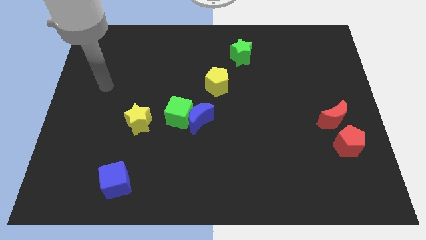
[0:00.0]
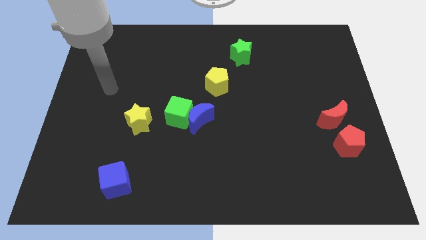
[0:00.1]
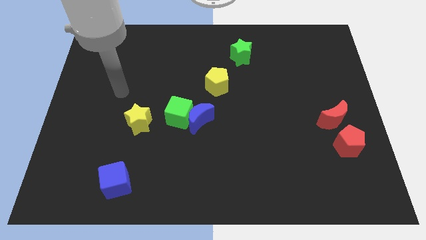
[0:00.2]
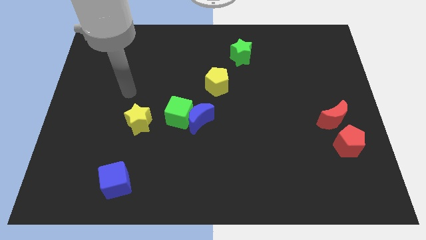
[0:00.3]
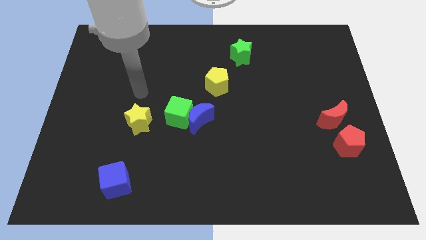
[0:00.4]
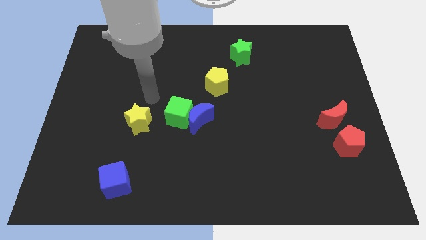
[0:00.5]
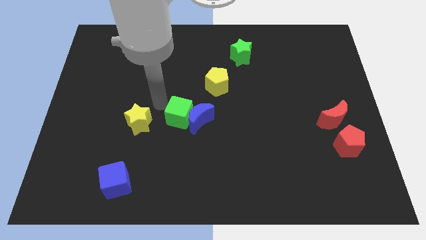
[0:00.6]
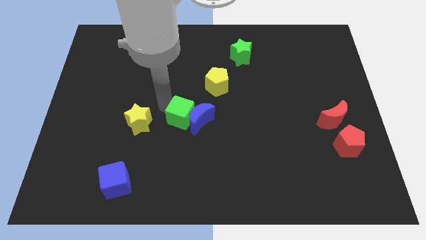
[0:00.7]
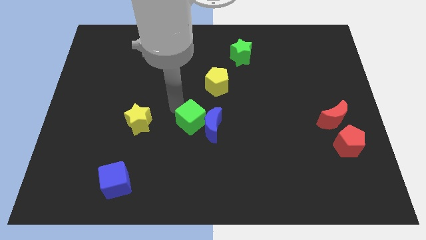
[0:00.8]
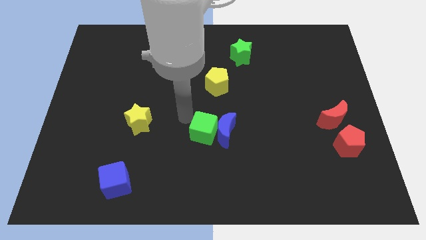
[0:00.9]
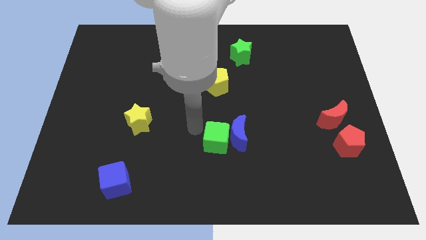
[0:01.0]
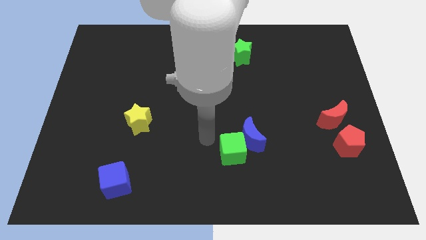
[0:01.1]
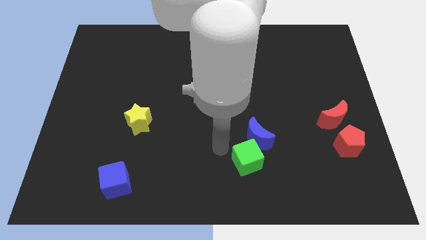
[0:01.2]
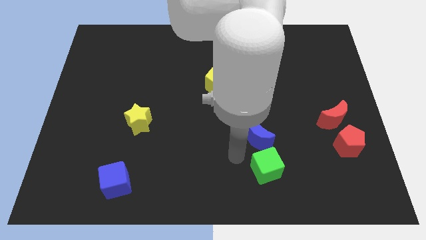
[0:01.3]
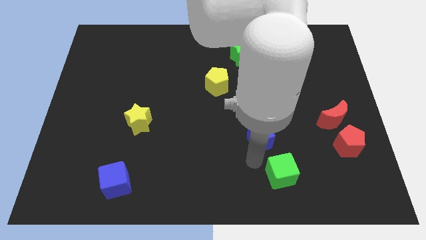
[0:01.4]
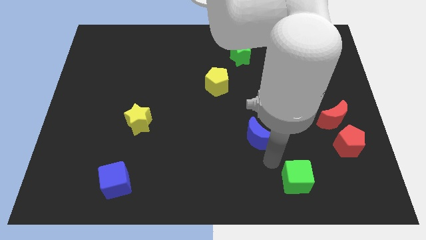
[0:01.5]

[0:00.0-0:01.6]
move the blue moon away from the green cube

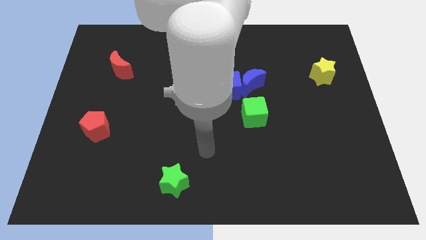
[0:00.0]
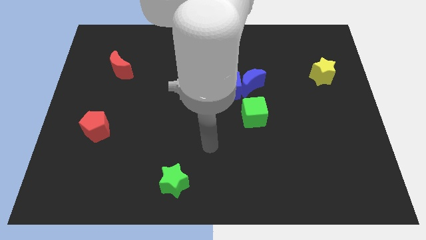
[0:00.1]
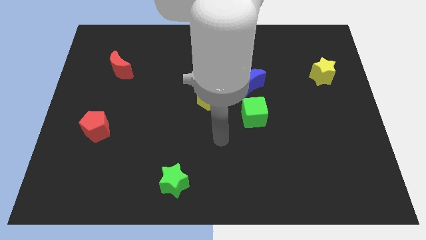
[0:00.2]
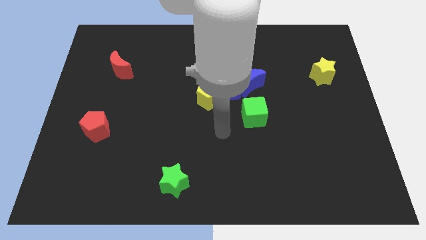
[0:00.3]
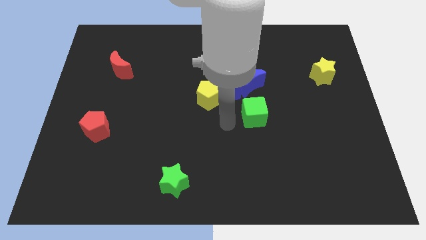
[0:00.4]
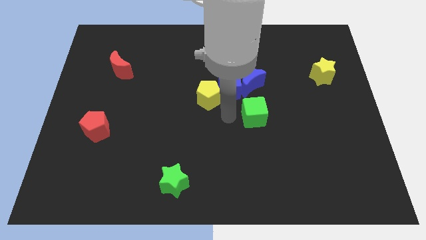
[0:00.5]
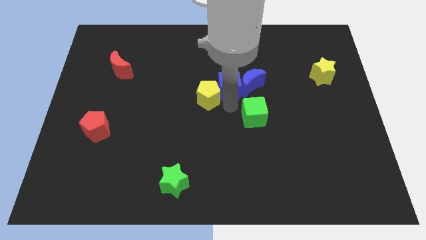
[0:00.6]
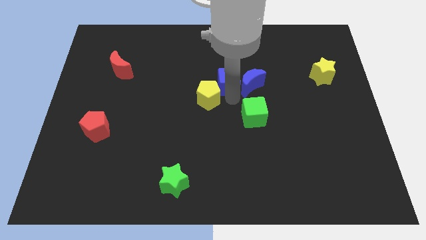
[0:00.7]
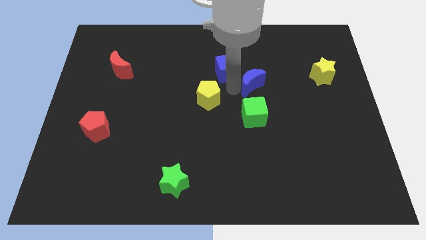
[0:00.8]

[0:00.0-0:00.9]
pull the yellow pentagon apart from the blue cube

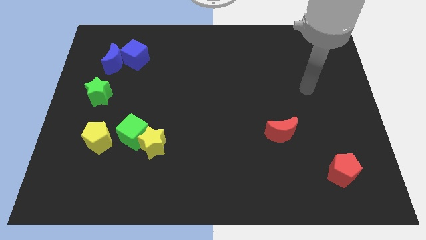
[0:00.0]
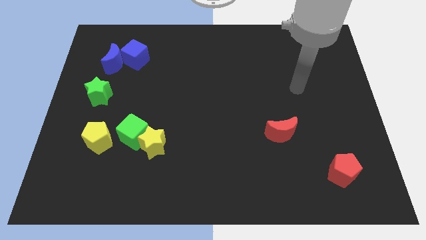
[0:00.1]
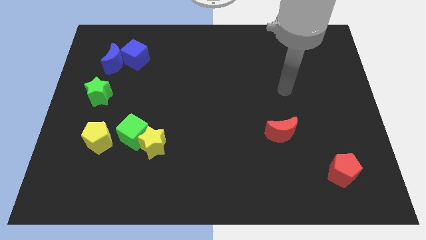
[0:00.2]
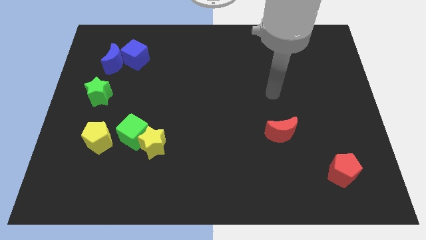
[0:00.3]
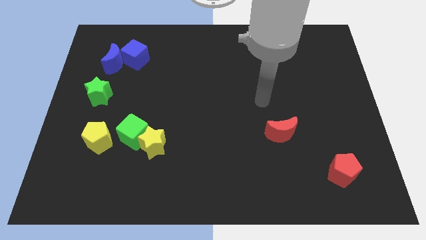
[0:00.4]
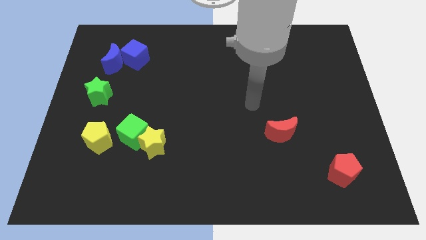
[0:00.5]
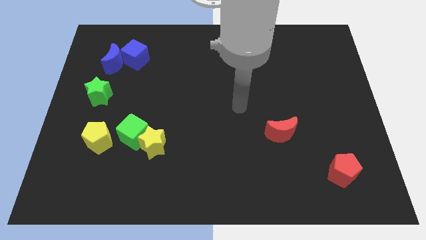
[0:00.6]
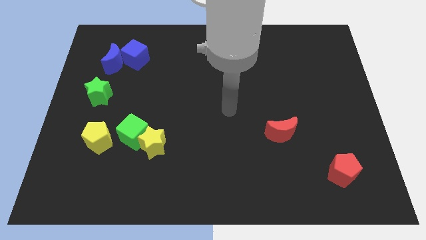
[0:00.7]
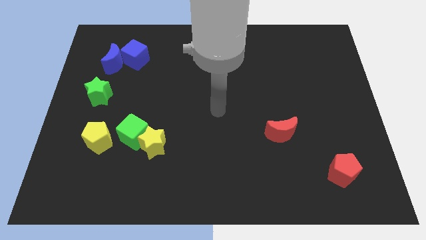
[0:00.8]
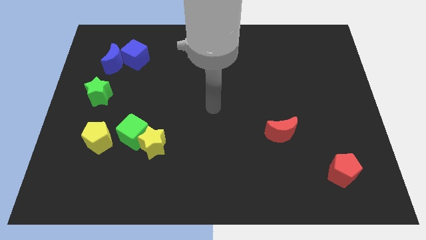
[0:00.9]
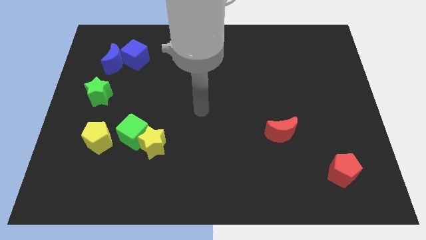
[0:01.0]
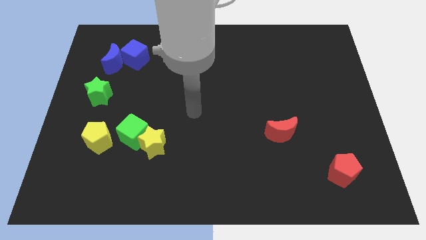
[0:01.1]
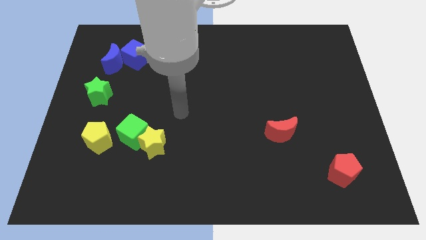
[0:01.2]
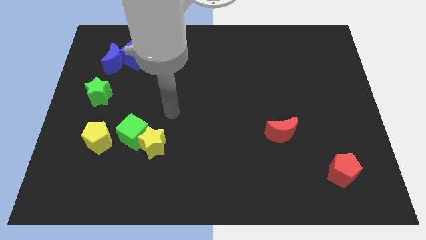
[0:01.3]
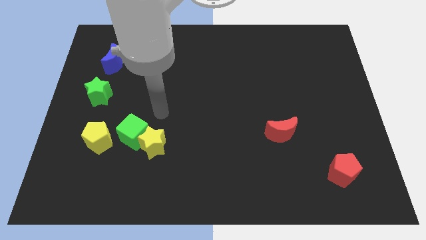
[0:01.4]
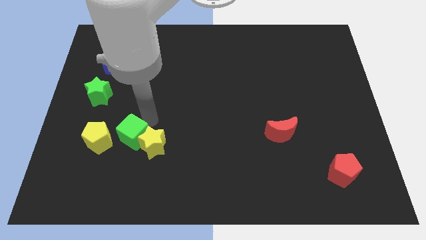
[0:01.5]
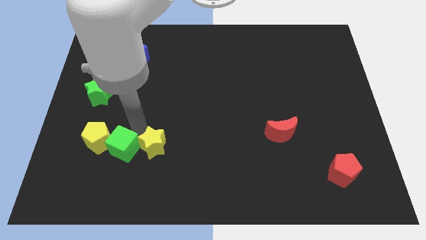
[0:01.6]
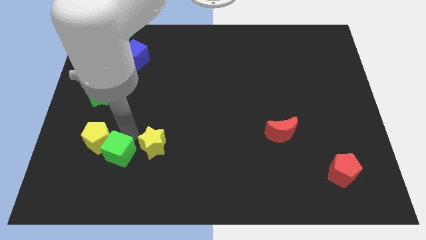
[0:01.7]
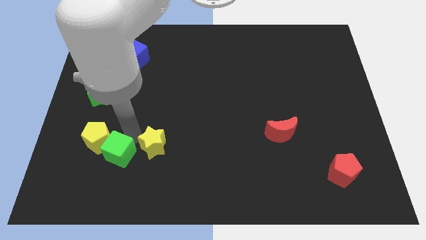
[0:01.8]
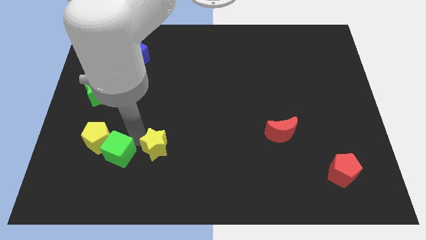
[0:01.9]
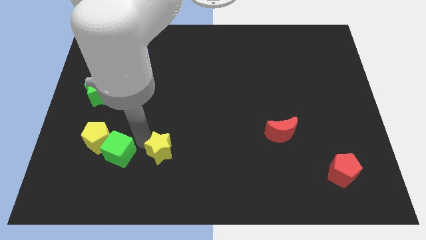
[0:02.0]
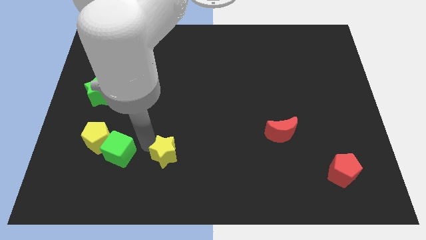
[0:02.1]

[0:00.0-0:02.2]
pull the yellow star apart from the green cube

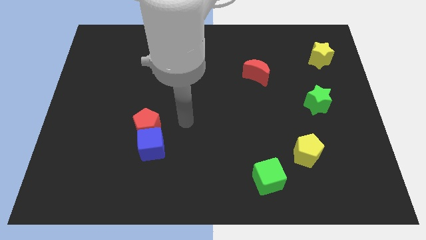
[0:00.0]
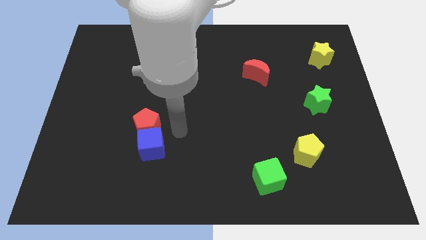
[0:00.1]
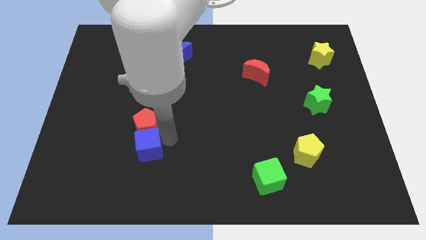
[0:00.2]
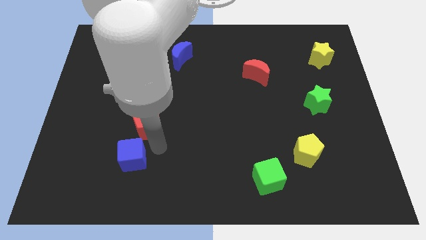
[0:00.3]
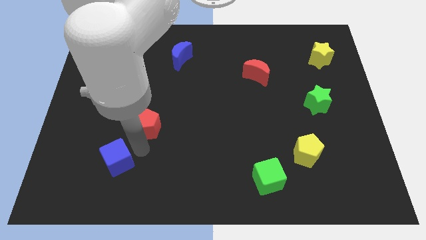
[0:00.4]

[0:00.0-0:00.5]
move the red pentagon away from the blue cube

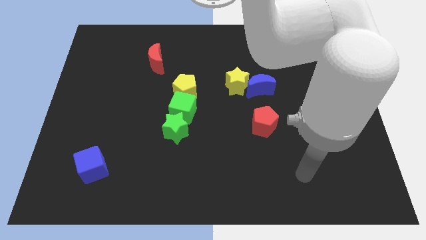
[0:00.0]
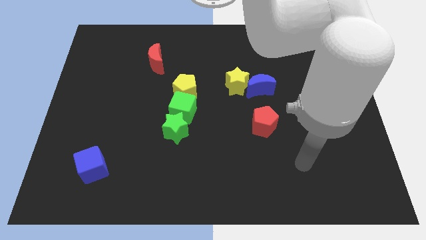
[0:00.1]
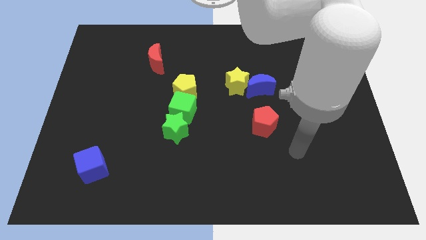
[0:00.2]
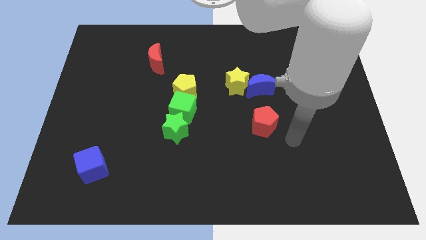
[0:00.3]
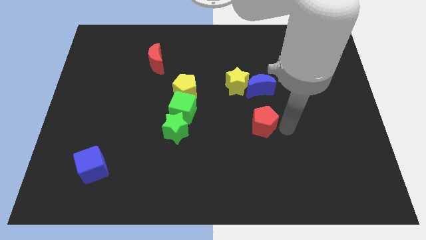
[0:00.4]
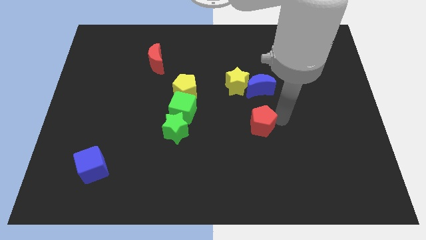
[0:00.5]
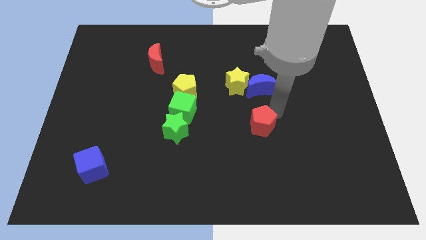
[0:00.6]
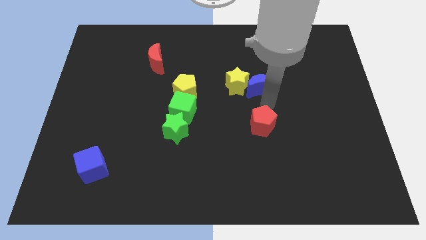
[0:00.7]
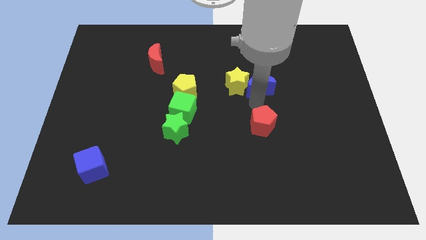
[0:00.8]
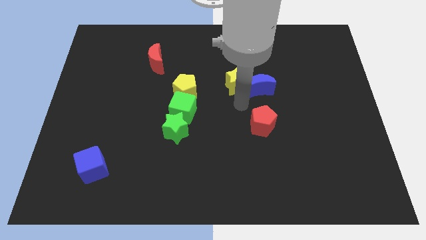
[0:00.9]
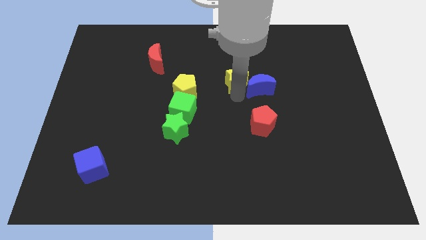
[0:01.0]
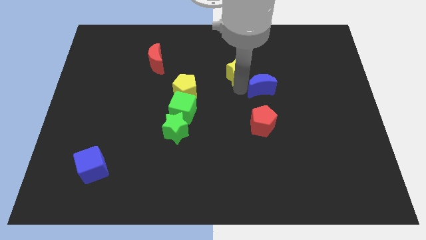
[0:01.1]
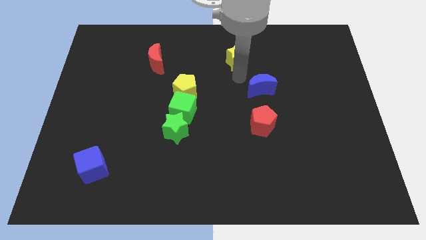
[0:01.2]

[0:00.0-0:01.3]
move the blue moon away from the yellow star

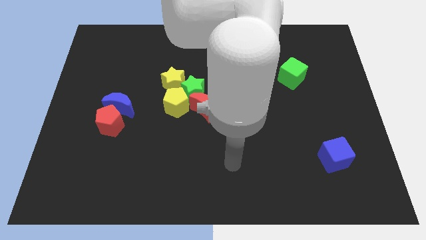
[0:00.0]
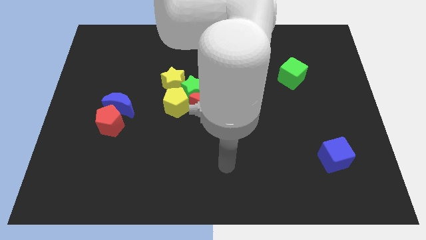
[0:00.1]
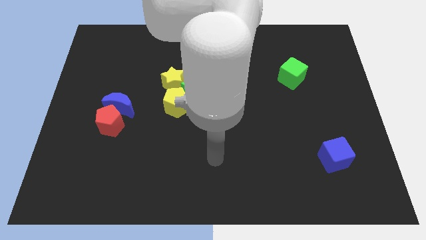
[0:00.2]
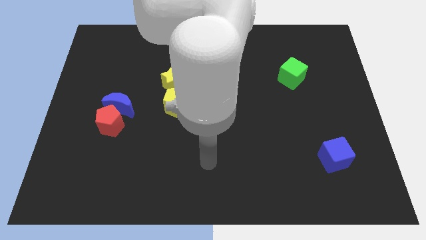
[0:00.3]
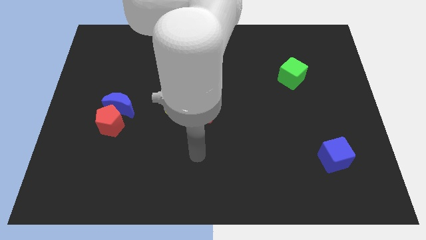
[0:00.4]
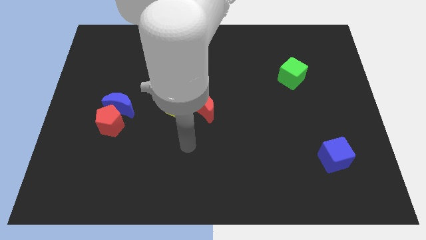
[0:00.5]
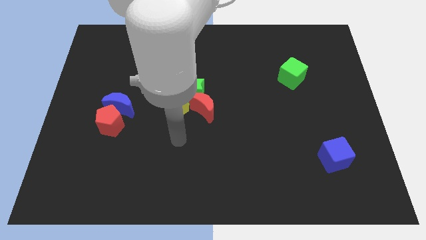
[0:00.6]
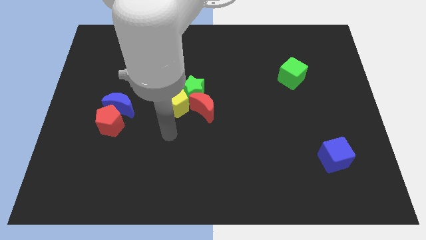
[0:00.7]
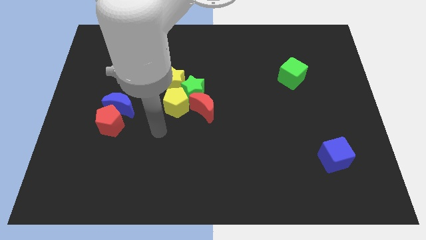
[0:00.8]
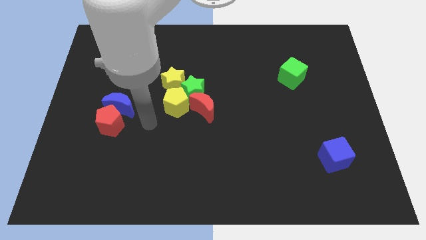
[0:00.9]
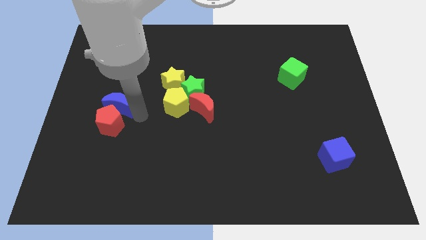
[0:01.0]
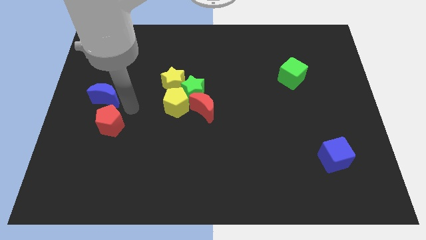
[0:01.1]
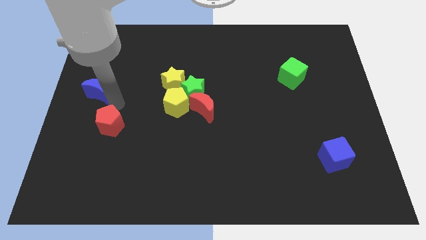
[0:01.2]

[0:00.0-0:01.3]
separate the red pentagon from the blue moon

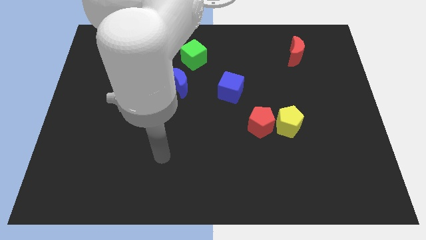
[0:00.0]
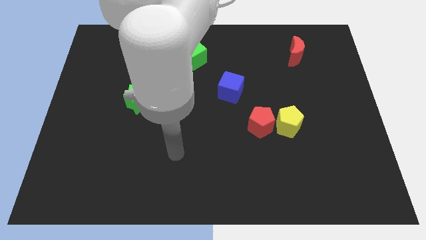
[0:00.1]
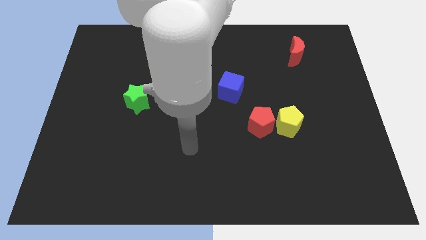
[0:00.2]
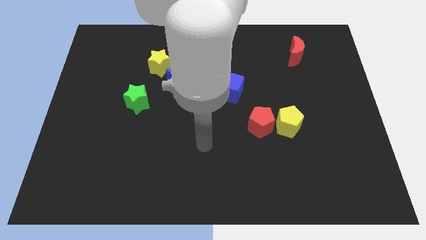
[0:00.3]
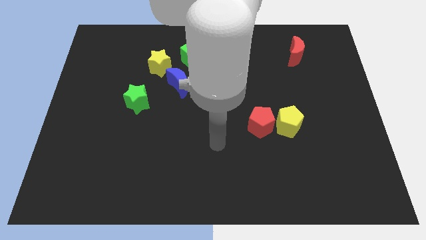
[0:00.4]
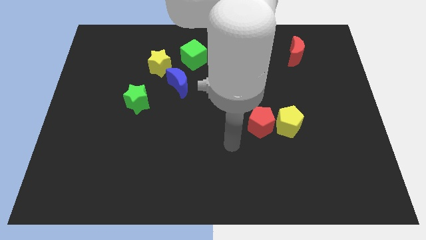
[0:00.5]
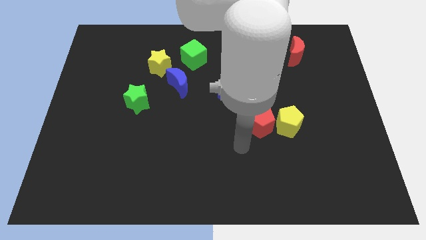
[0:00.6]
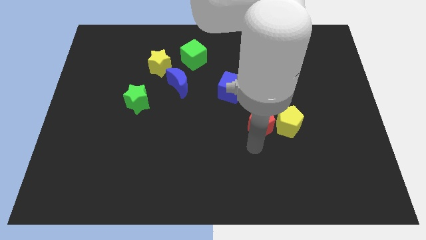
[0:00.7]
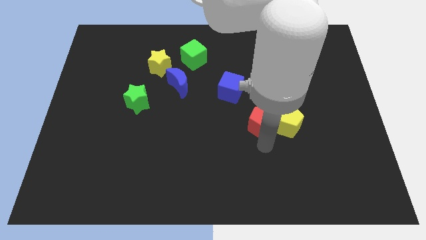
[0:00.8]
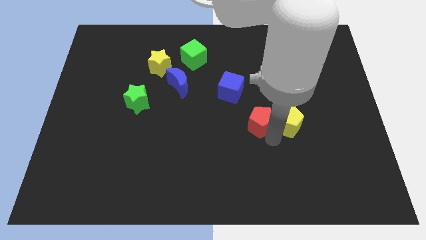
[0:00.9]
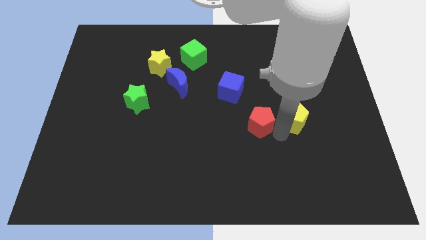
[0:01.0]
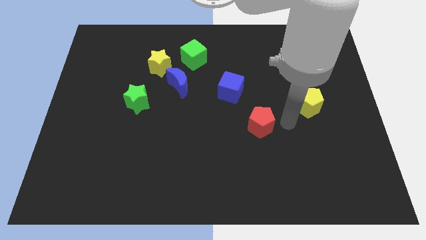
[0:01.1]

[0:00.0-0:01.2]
pull the red pentagon apart from the yellow pentagon

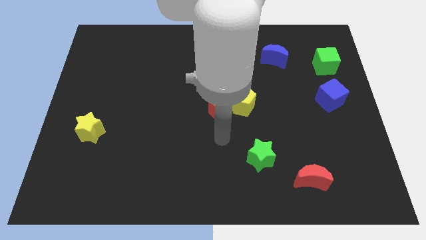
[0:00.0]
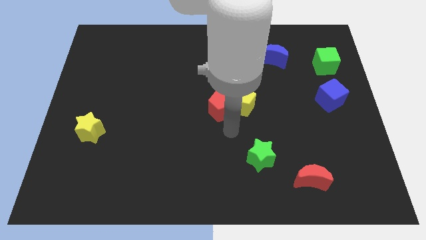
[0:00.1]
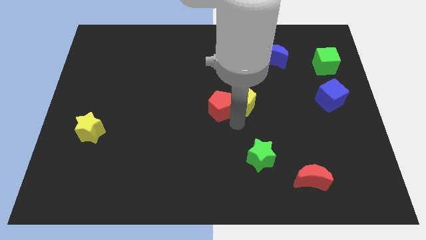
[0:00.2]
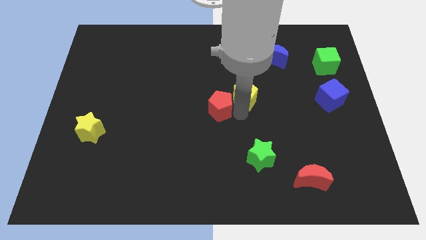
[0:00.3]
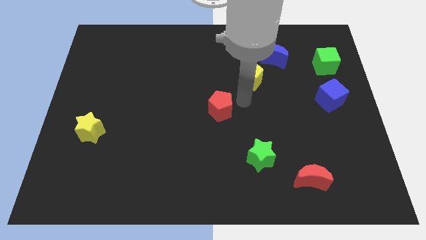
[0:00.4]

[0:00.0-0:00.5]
move the red pentagon away from the yellow pentagon
